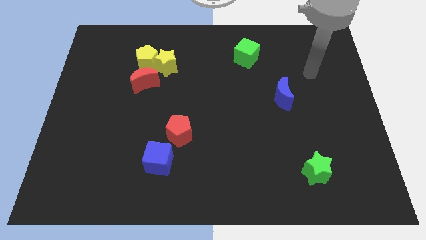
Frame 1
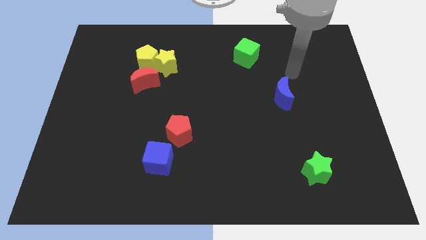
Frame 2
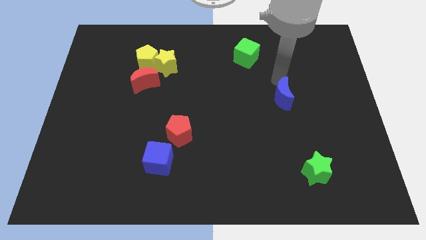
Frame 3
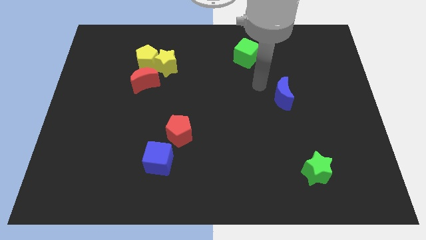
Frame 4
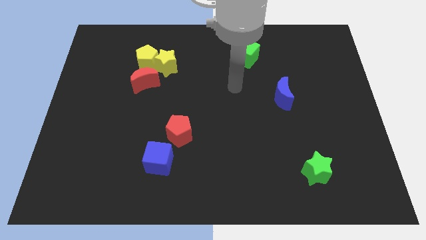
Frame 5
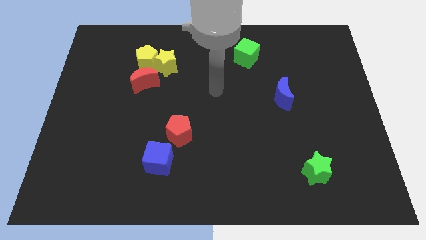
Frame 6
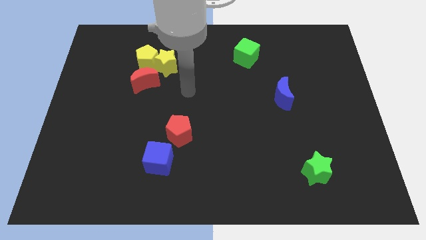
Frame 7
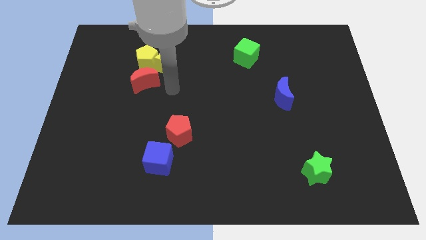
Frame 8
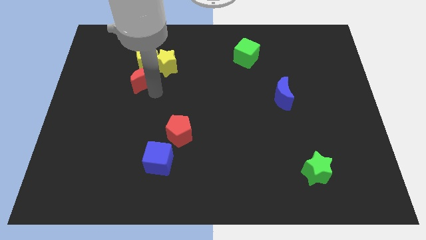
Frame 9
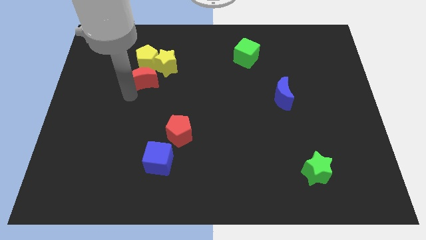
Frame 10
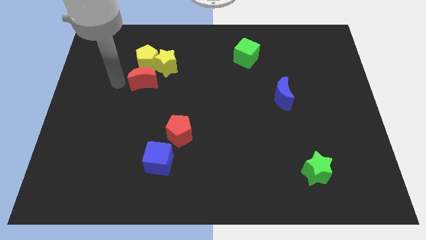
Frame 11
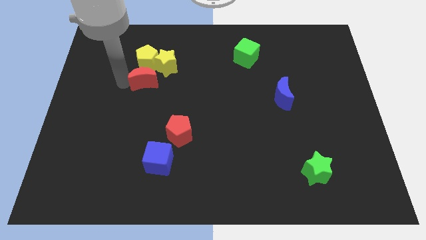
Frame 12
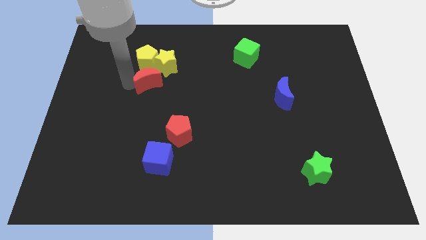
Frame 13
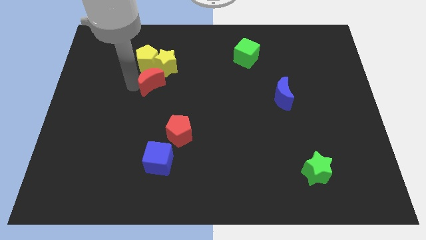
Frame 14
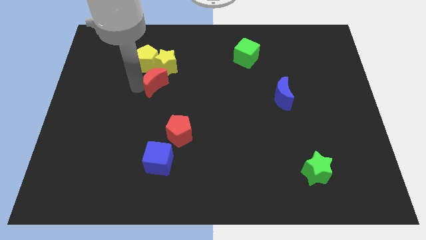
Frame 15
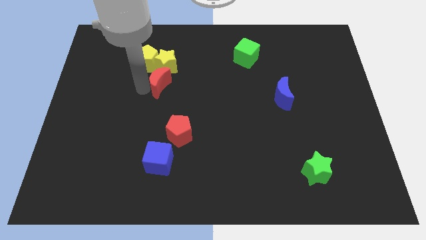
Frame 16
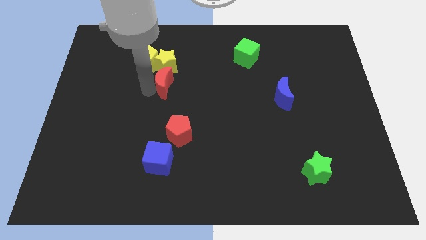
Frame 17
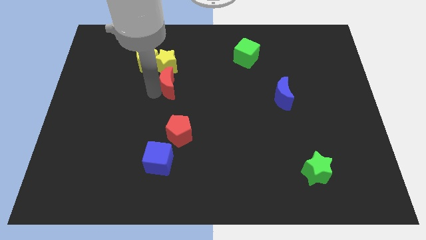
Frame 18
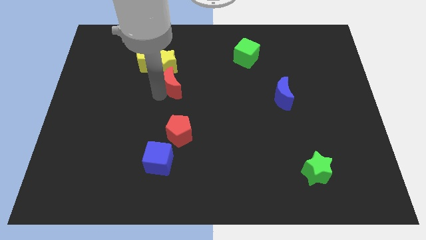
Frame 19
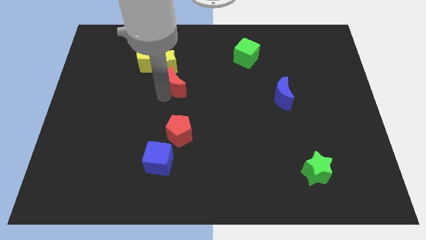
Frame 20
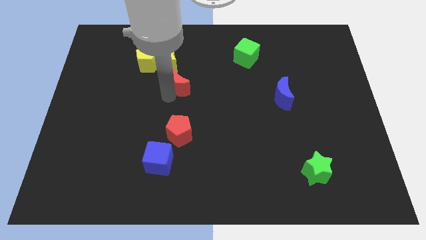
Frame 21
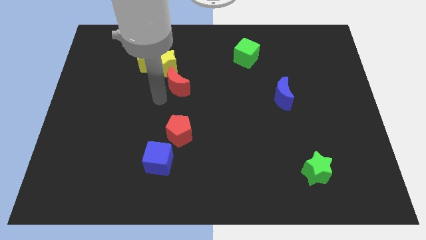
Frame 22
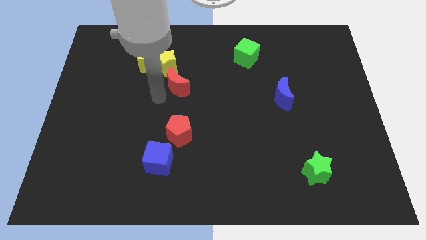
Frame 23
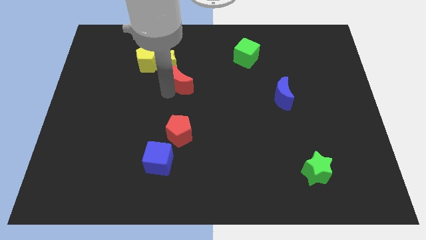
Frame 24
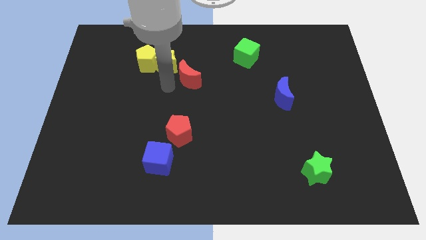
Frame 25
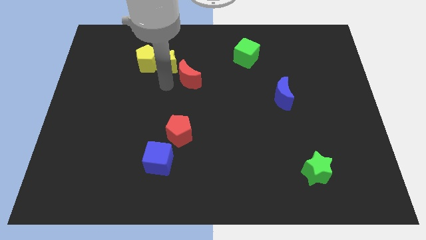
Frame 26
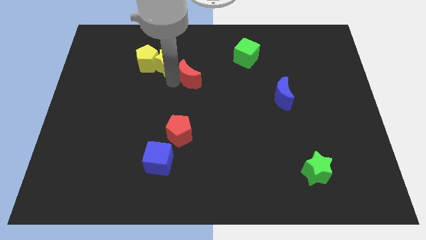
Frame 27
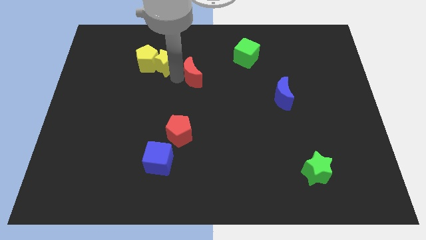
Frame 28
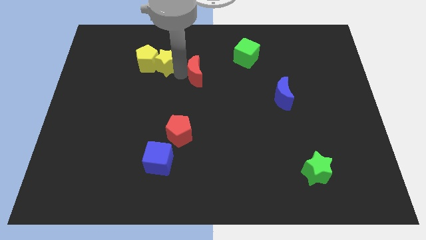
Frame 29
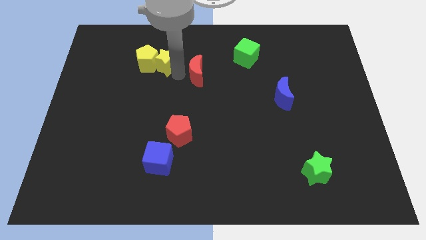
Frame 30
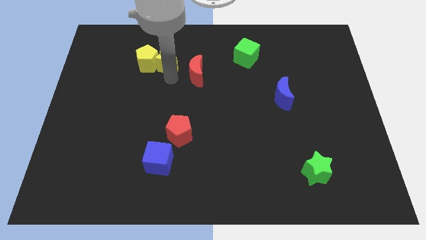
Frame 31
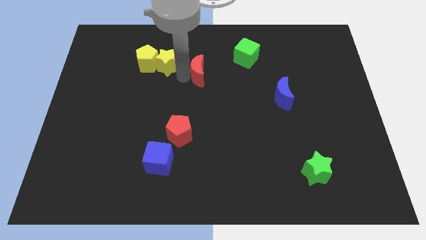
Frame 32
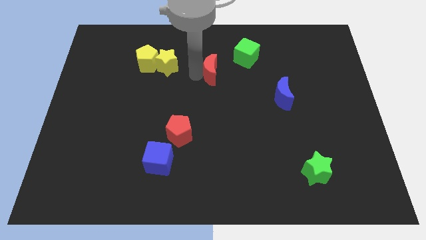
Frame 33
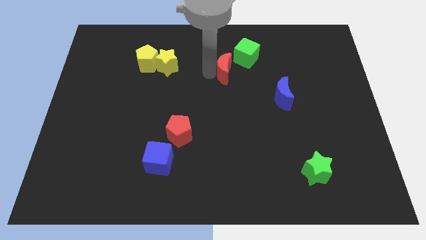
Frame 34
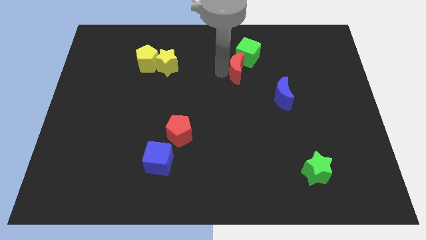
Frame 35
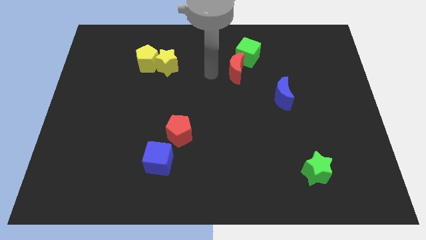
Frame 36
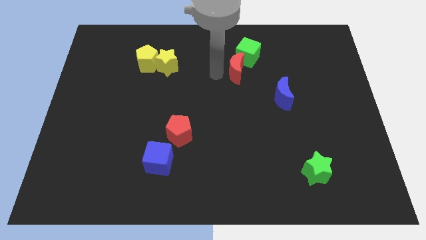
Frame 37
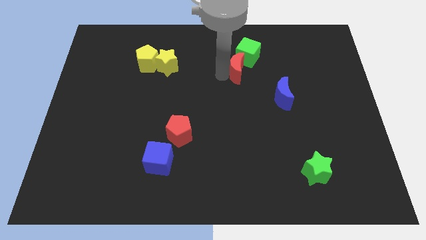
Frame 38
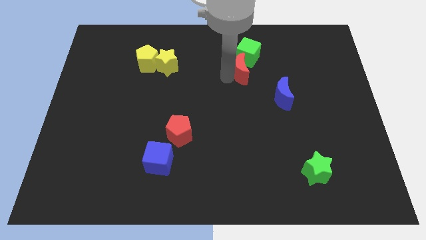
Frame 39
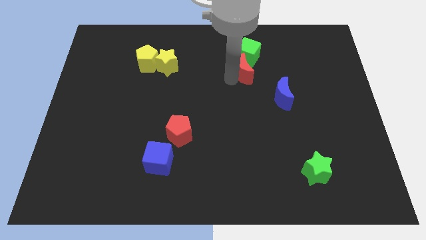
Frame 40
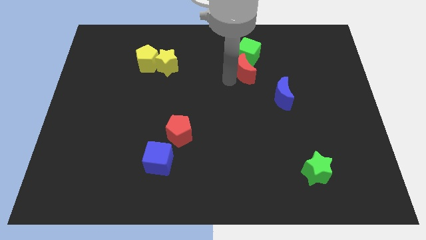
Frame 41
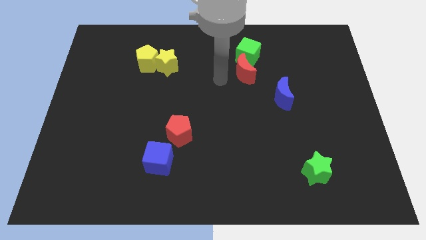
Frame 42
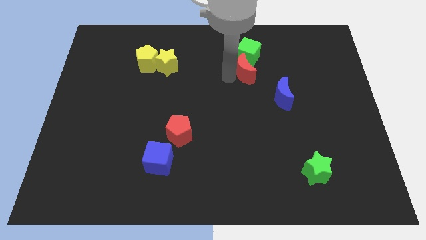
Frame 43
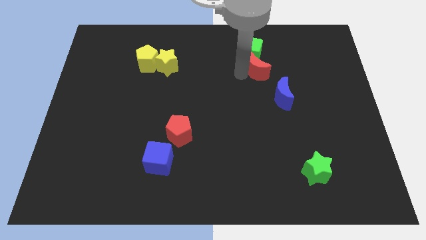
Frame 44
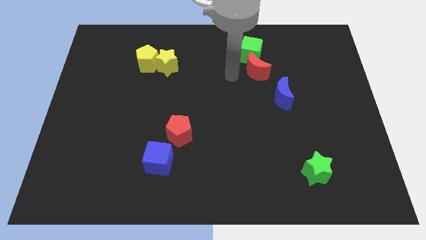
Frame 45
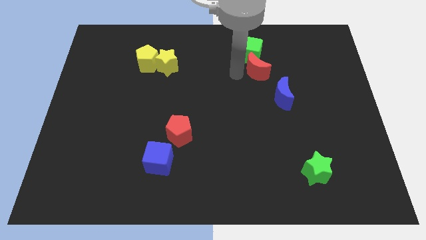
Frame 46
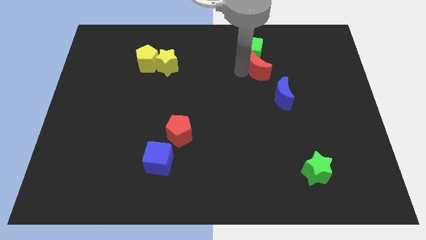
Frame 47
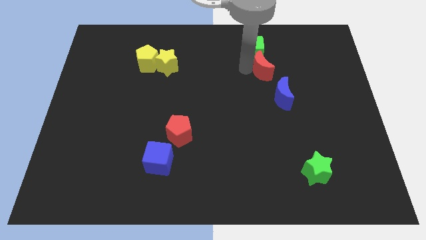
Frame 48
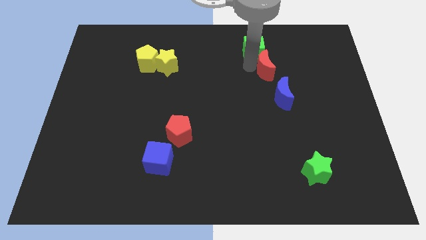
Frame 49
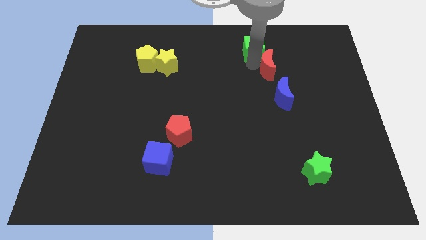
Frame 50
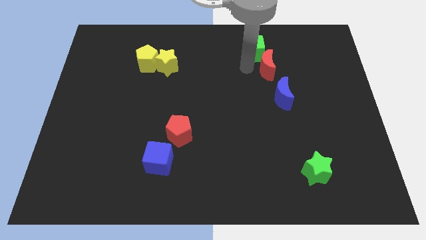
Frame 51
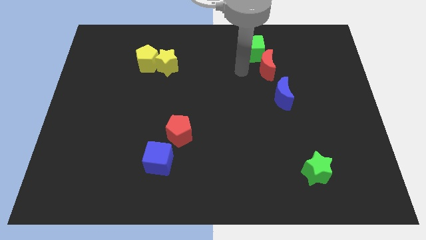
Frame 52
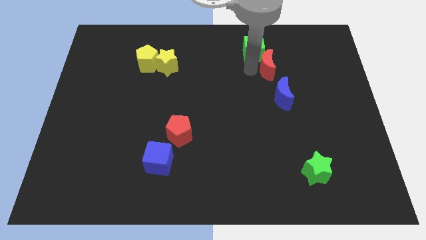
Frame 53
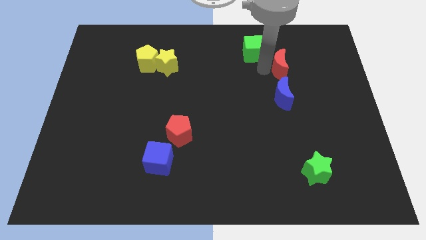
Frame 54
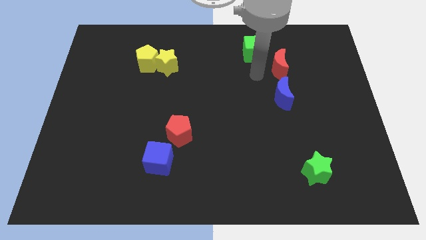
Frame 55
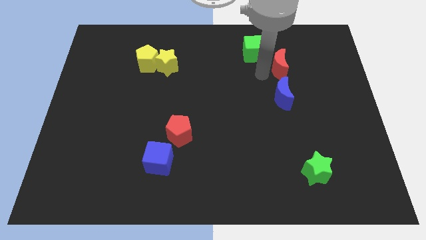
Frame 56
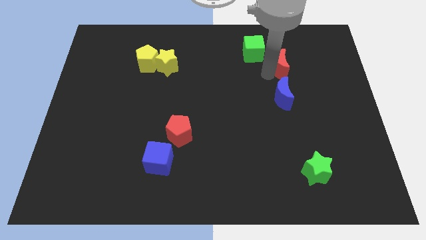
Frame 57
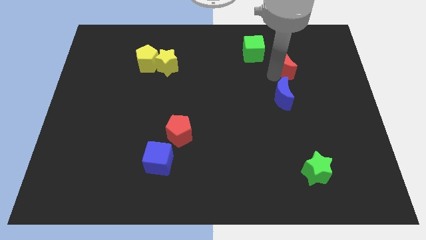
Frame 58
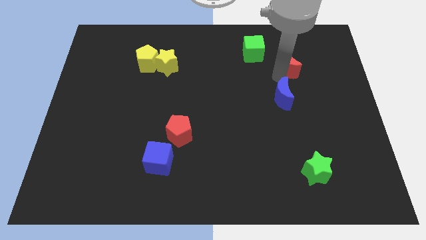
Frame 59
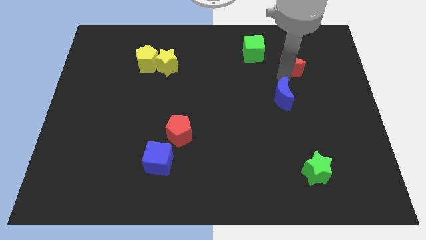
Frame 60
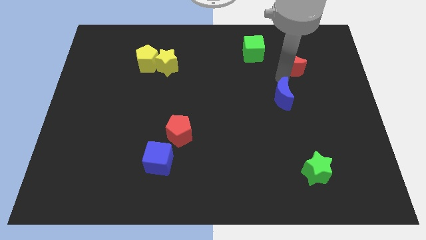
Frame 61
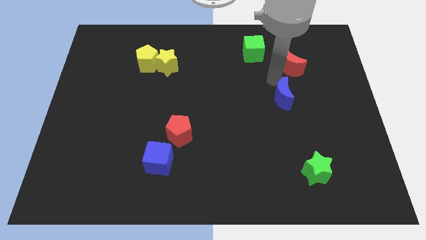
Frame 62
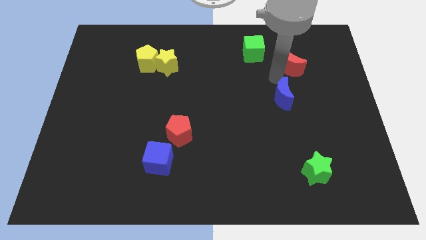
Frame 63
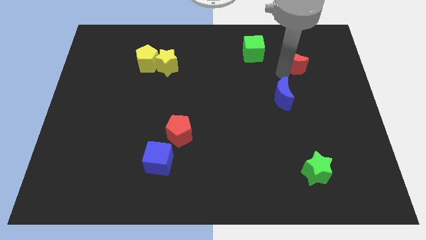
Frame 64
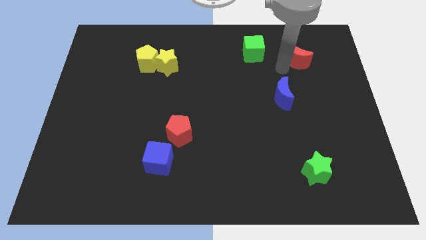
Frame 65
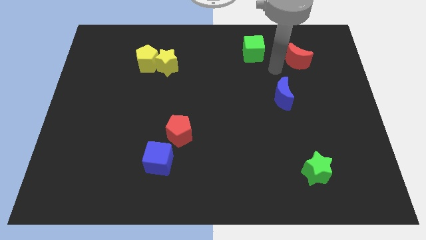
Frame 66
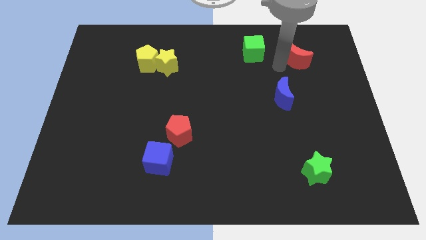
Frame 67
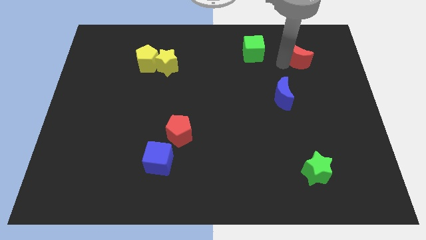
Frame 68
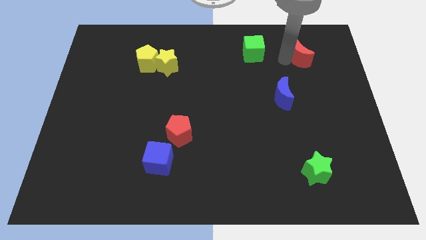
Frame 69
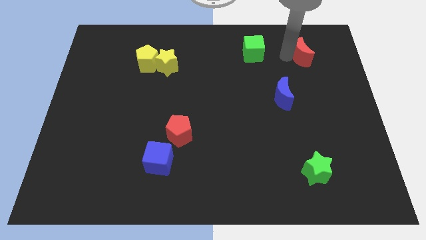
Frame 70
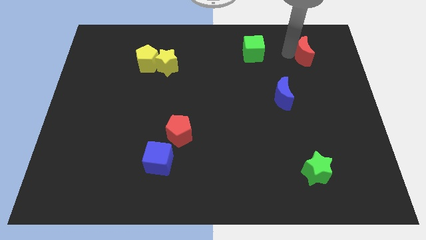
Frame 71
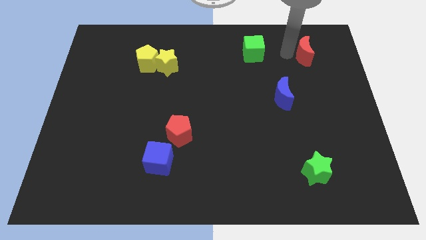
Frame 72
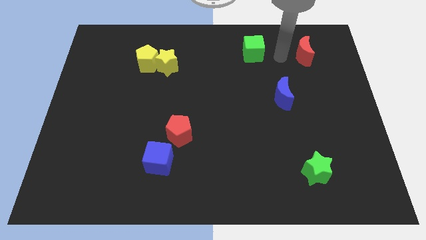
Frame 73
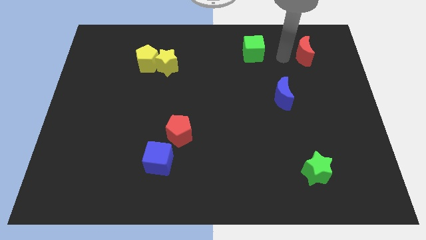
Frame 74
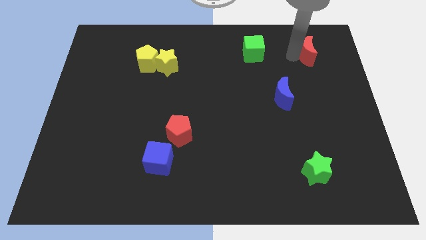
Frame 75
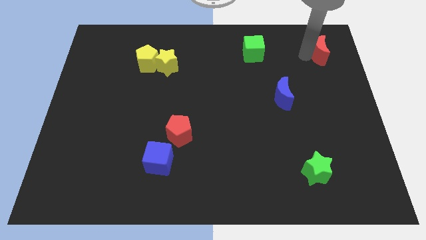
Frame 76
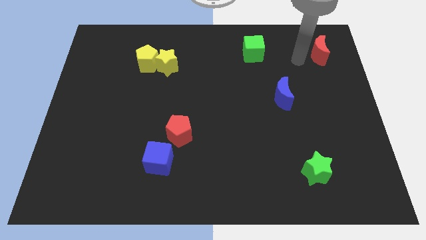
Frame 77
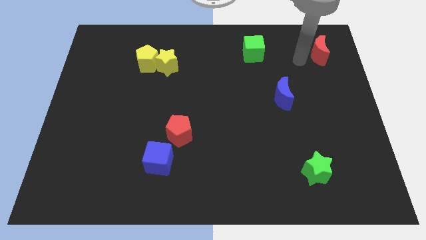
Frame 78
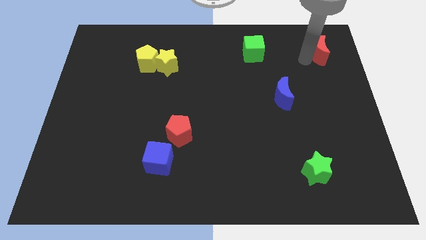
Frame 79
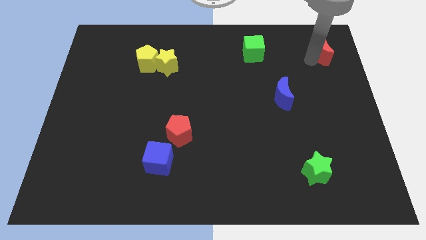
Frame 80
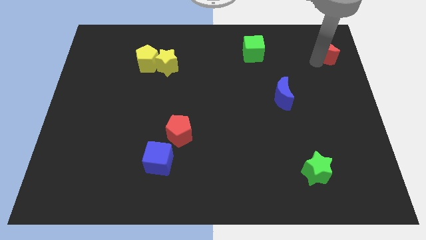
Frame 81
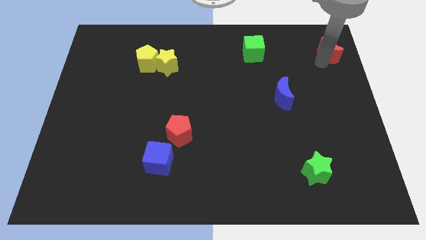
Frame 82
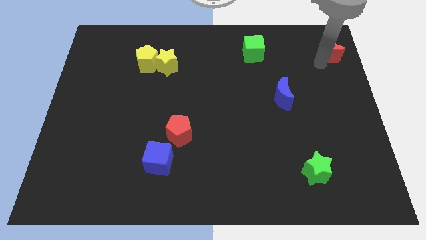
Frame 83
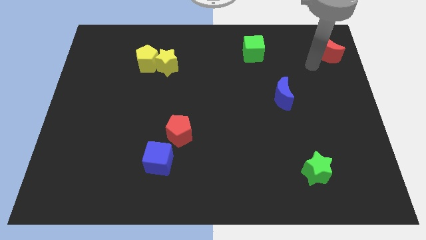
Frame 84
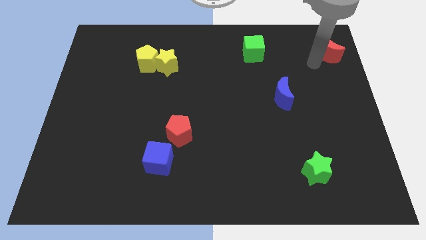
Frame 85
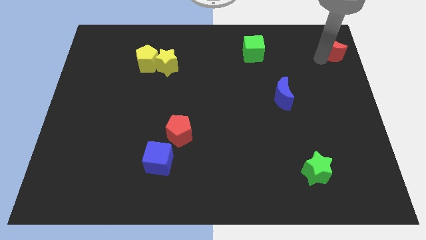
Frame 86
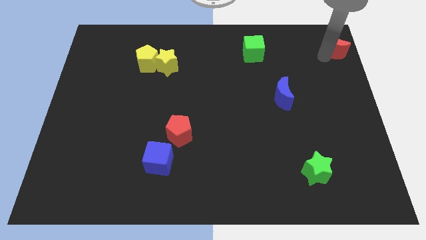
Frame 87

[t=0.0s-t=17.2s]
slide the red moon to the top right
